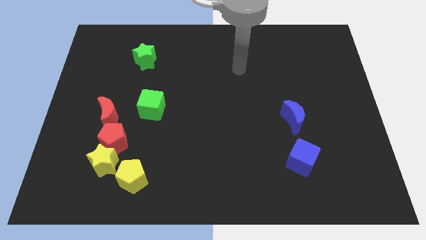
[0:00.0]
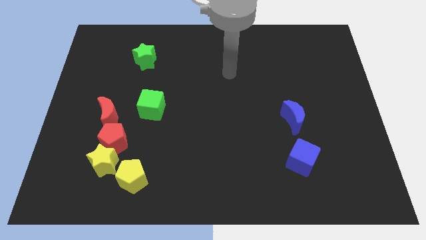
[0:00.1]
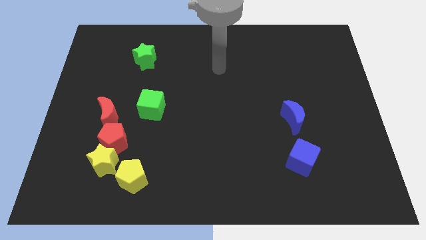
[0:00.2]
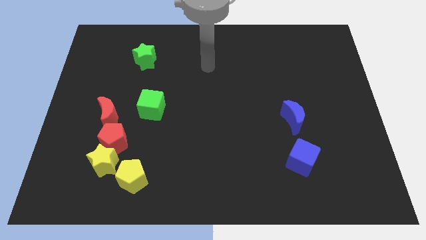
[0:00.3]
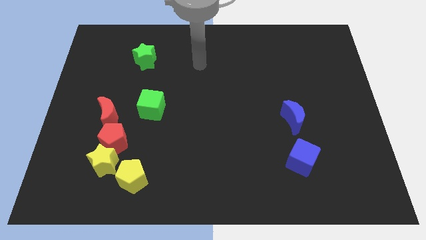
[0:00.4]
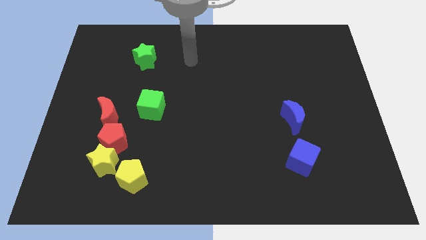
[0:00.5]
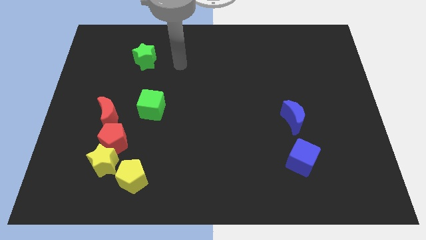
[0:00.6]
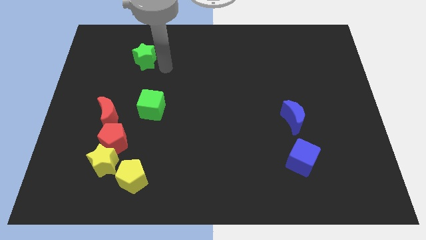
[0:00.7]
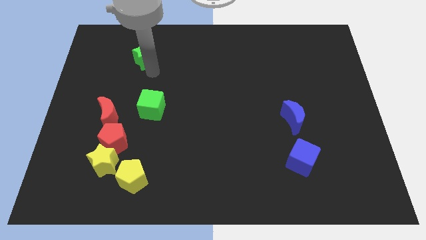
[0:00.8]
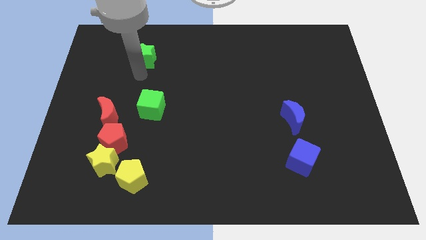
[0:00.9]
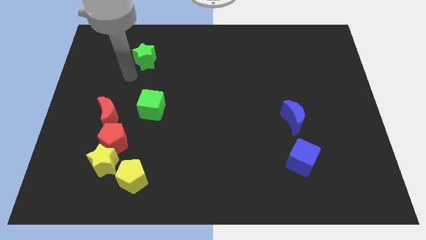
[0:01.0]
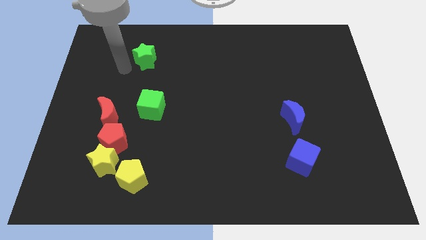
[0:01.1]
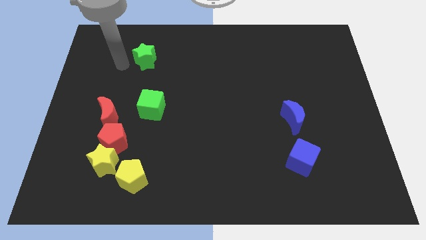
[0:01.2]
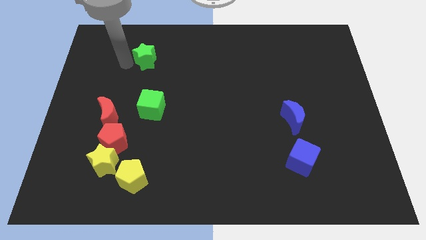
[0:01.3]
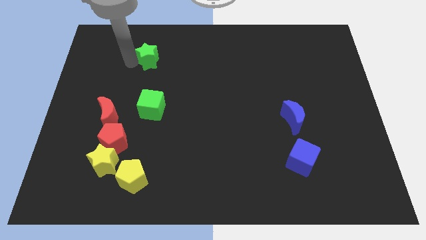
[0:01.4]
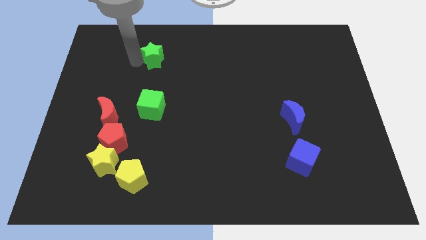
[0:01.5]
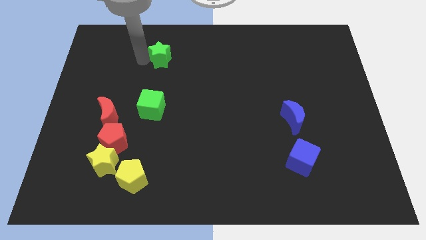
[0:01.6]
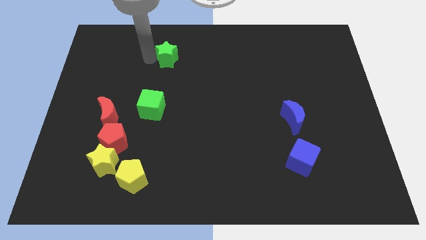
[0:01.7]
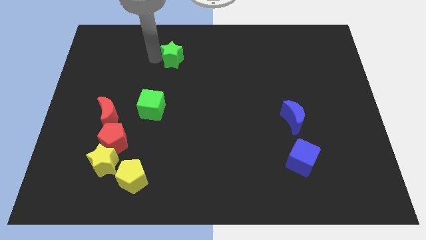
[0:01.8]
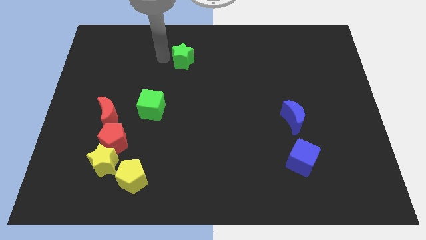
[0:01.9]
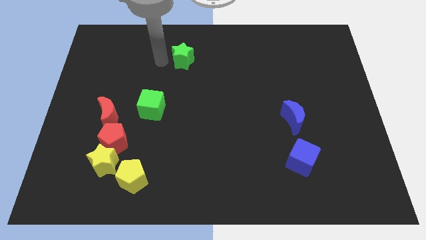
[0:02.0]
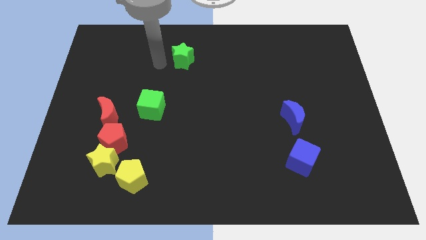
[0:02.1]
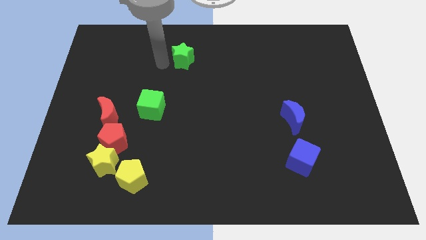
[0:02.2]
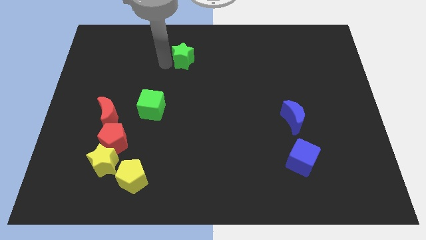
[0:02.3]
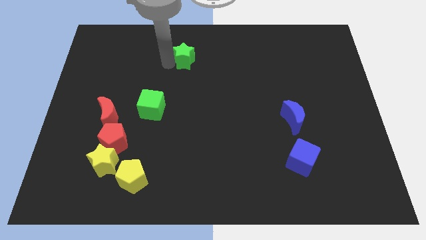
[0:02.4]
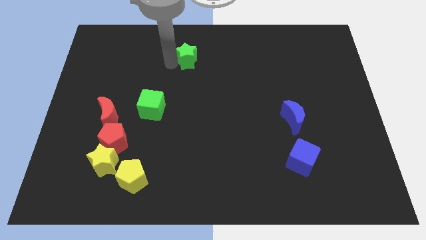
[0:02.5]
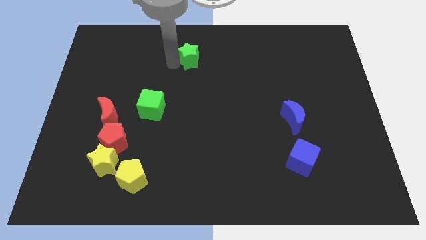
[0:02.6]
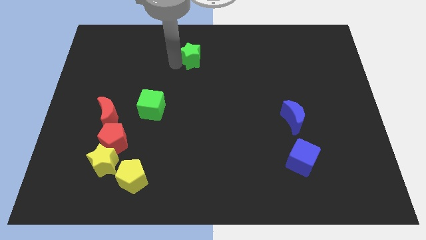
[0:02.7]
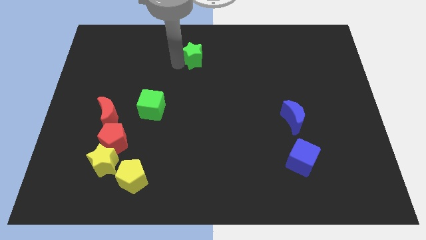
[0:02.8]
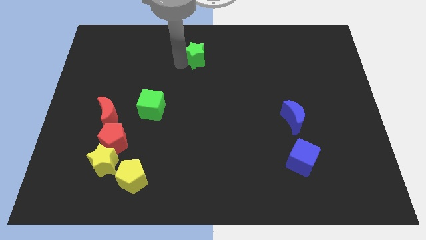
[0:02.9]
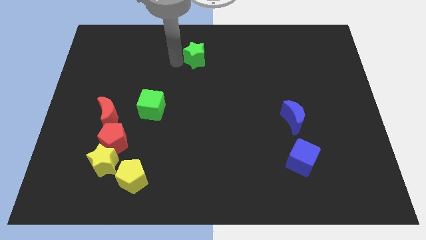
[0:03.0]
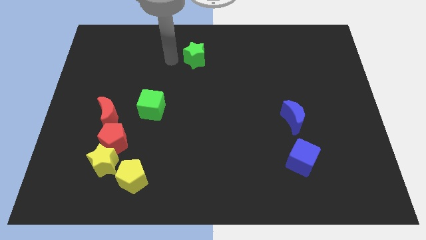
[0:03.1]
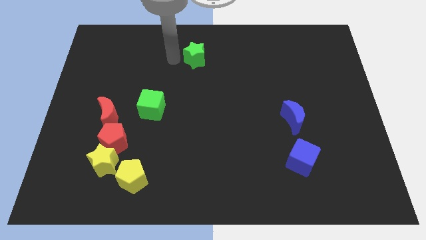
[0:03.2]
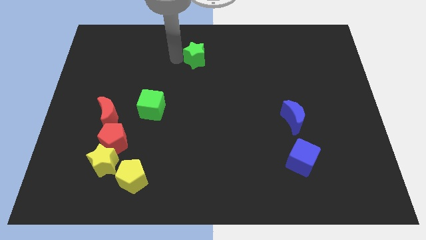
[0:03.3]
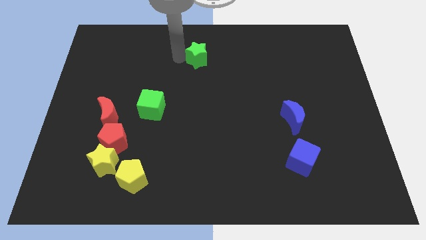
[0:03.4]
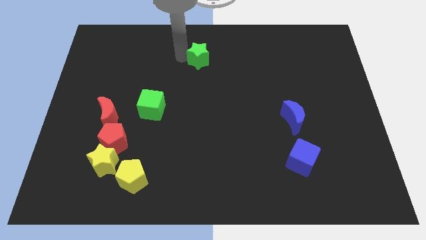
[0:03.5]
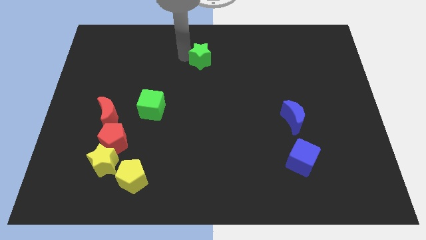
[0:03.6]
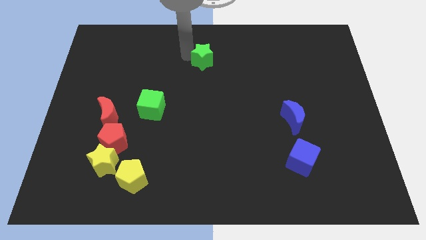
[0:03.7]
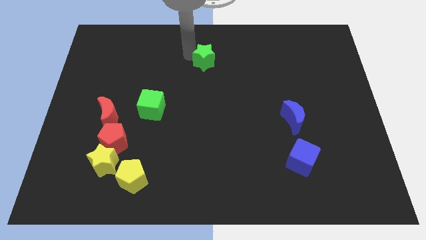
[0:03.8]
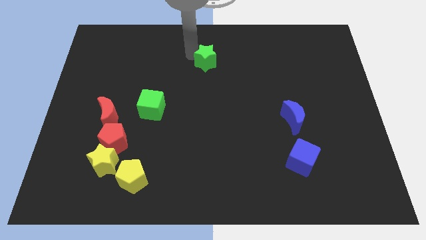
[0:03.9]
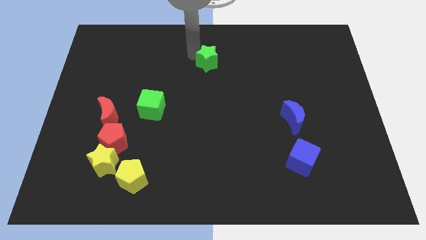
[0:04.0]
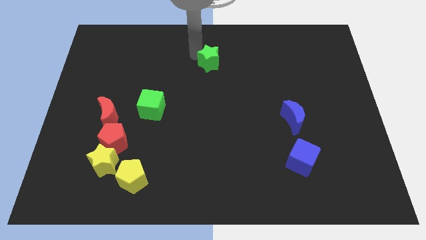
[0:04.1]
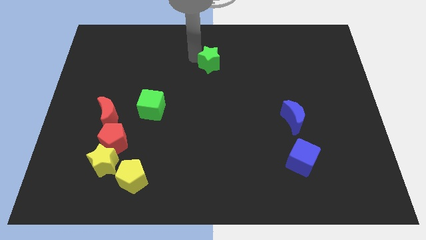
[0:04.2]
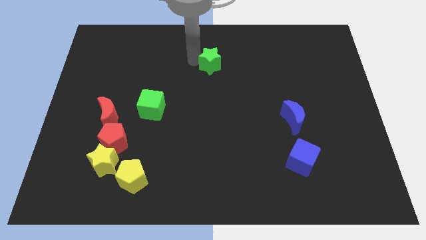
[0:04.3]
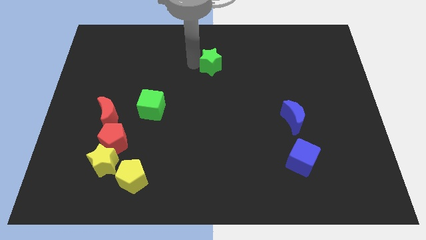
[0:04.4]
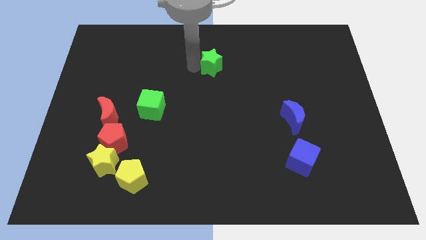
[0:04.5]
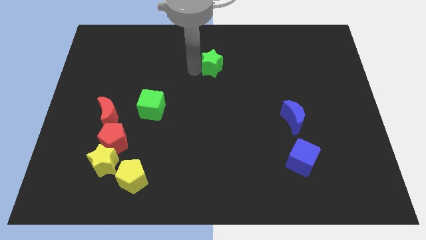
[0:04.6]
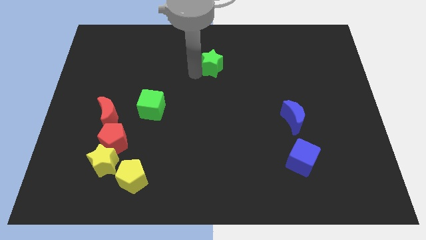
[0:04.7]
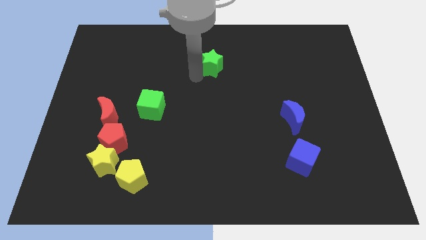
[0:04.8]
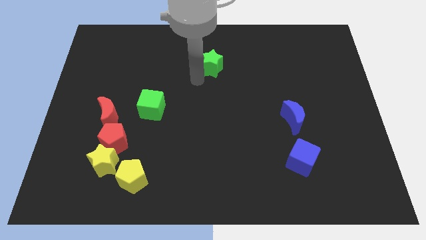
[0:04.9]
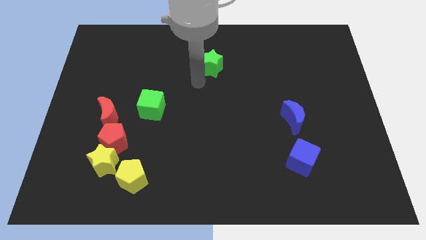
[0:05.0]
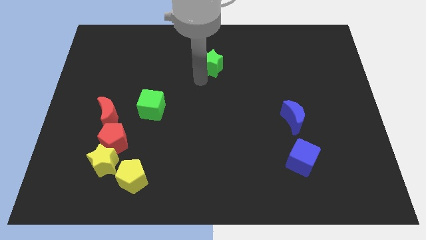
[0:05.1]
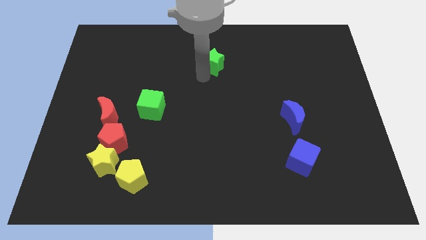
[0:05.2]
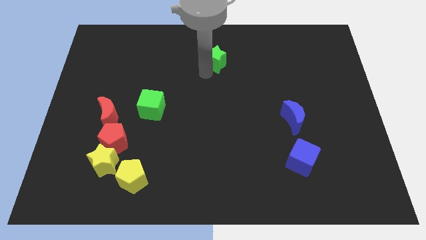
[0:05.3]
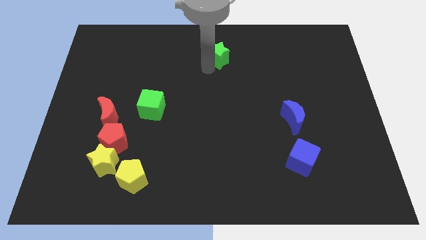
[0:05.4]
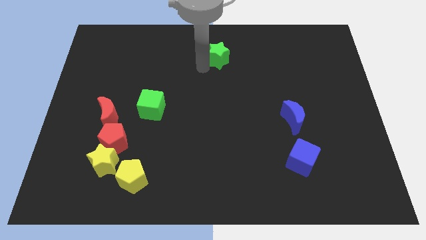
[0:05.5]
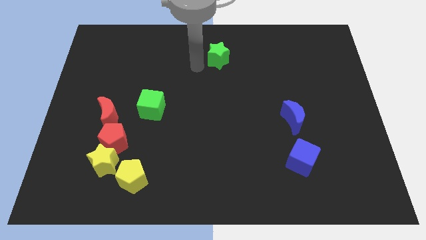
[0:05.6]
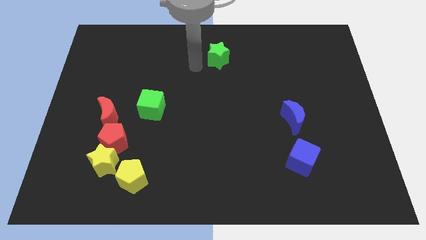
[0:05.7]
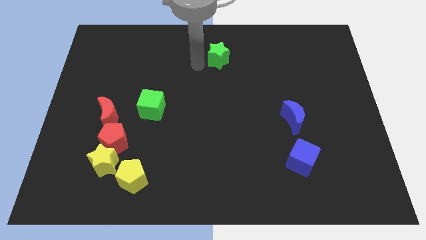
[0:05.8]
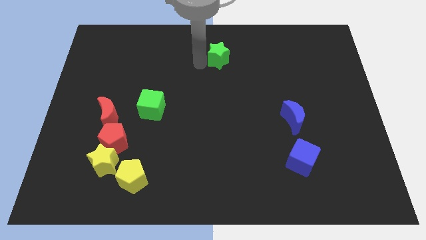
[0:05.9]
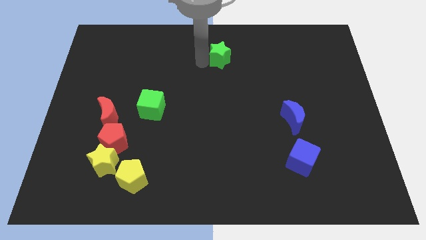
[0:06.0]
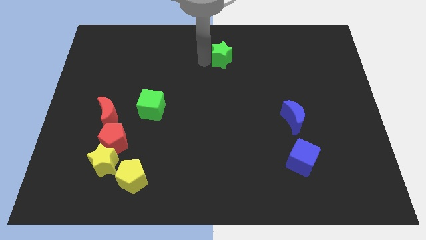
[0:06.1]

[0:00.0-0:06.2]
slide the green star right

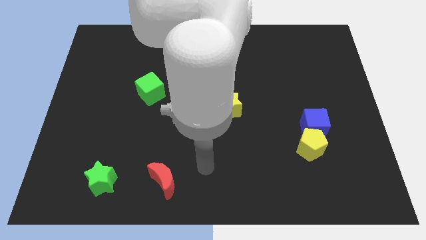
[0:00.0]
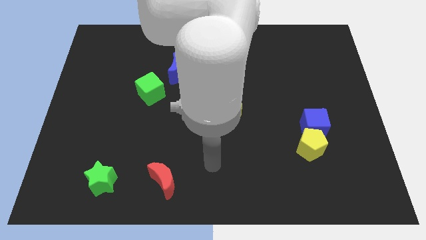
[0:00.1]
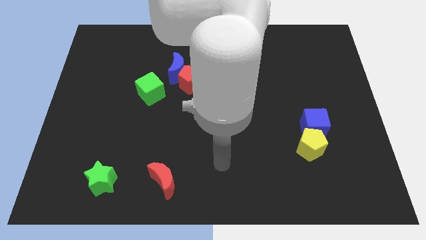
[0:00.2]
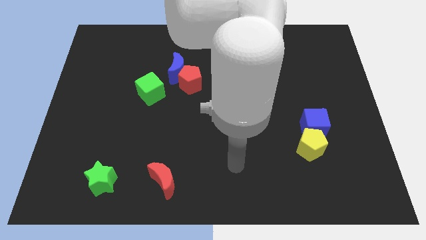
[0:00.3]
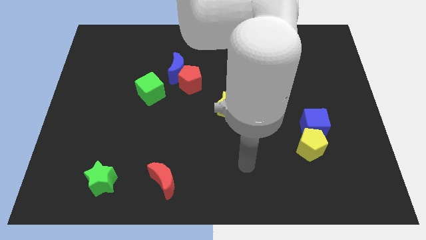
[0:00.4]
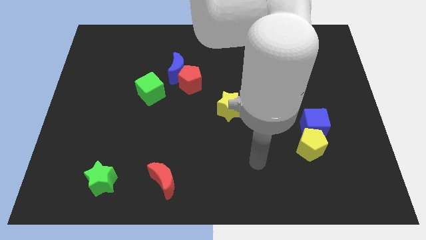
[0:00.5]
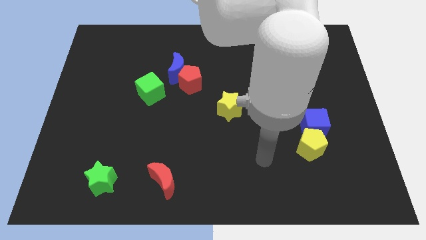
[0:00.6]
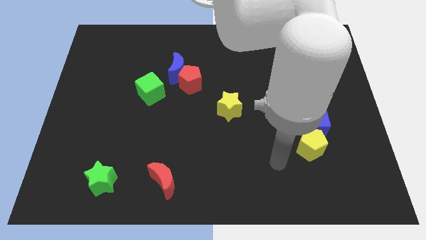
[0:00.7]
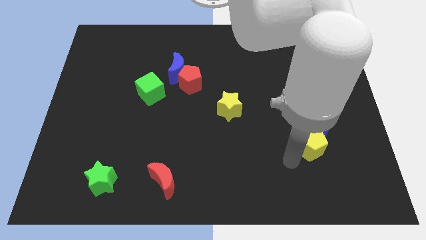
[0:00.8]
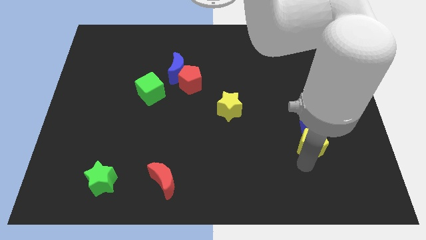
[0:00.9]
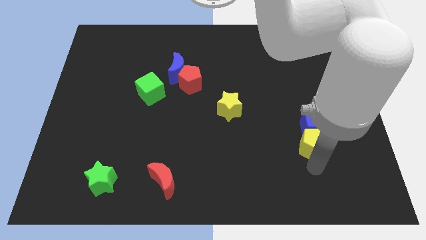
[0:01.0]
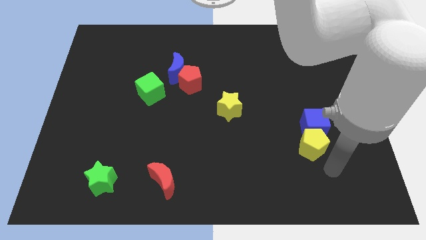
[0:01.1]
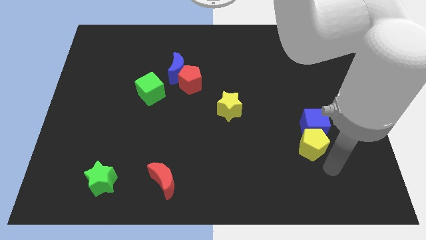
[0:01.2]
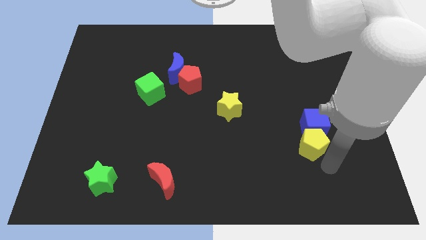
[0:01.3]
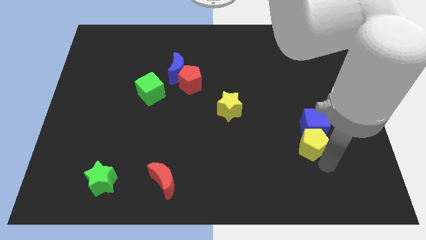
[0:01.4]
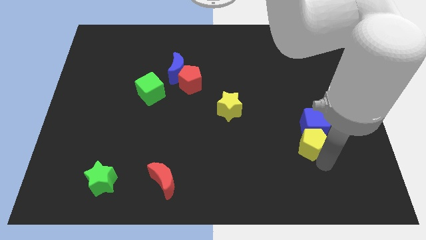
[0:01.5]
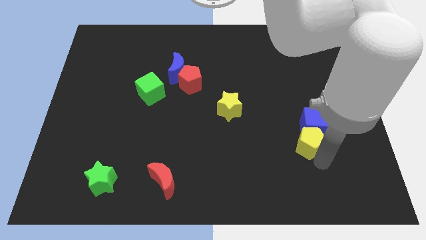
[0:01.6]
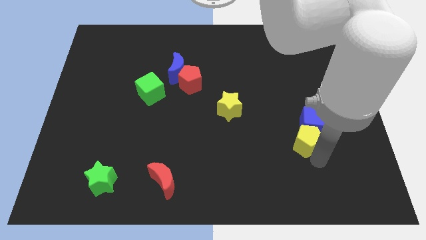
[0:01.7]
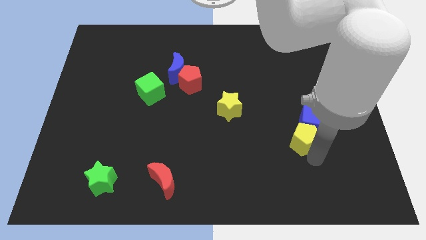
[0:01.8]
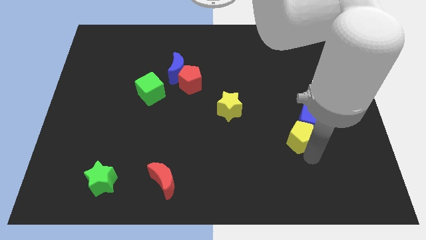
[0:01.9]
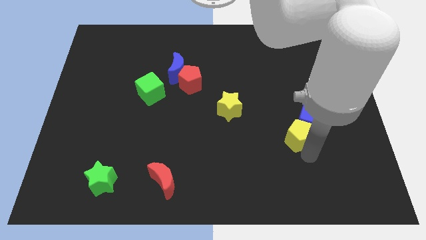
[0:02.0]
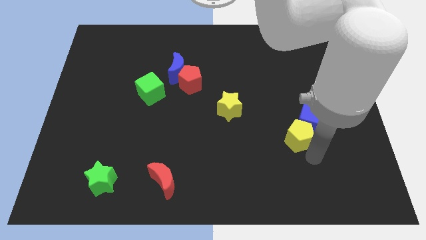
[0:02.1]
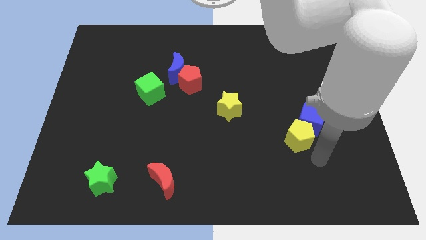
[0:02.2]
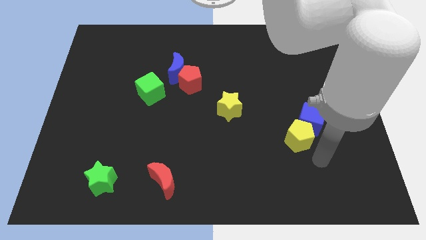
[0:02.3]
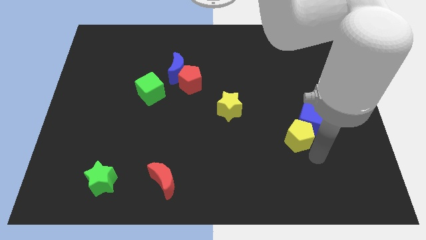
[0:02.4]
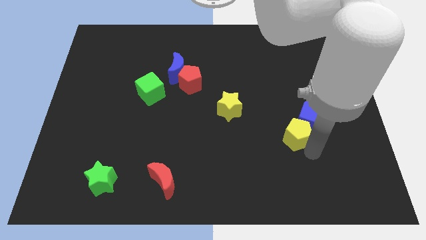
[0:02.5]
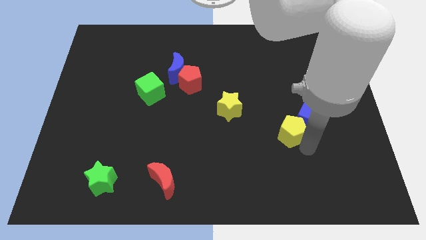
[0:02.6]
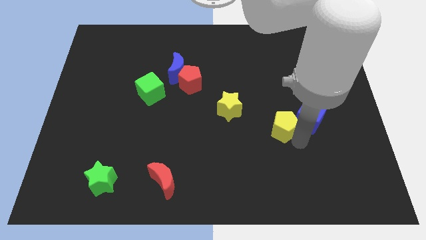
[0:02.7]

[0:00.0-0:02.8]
push the yellow pentagon upwards and then left a little
